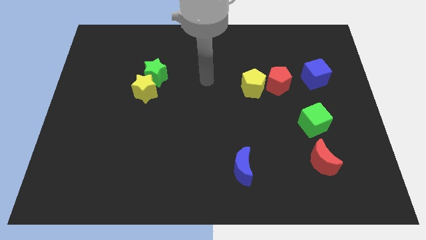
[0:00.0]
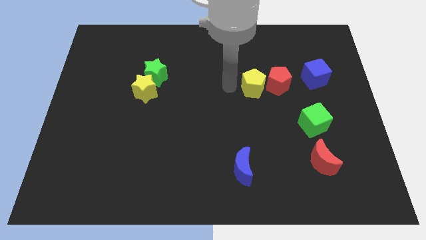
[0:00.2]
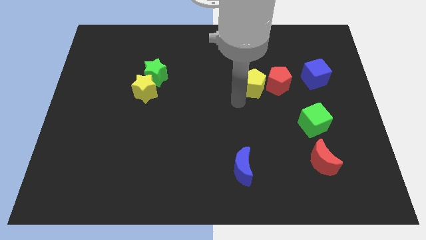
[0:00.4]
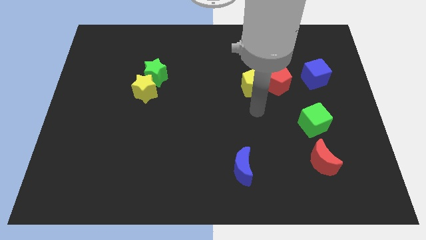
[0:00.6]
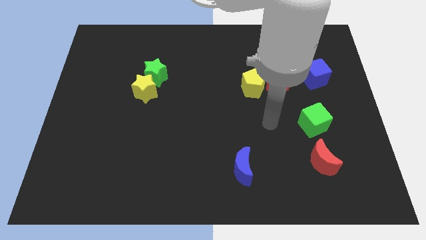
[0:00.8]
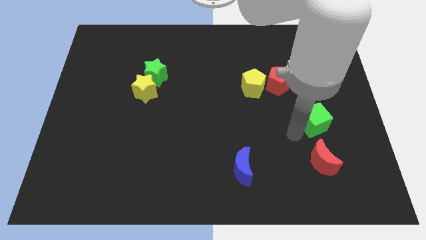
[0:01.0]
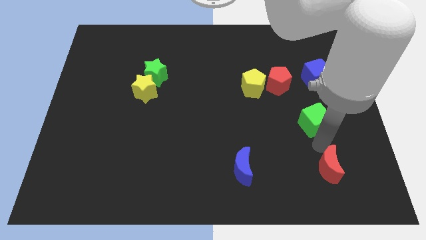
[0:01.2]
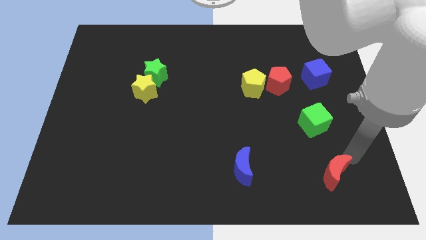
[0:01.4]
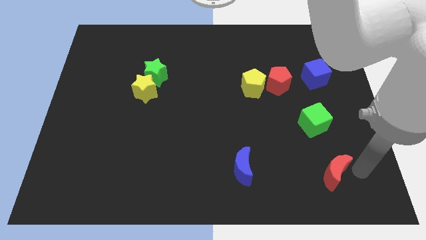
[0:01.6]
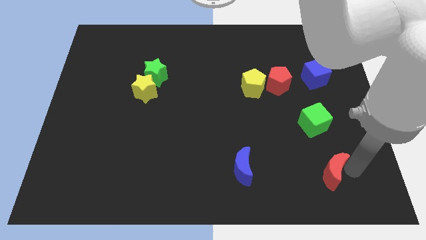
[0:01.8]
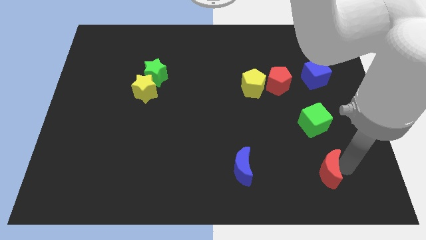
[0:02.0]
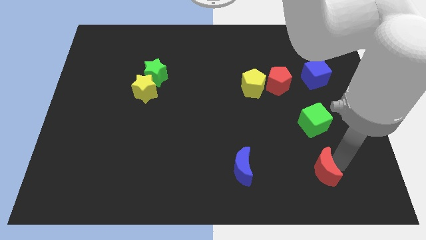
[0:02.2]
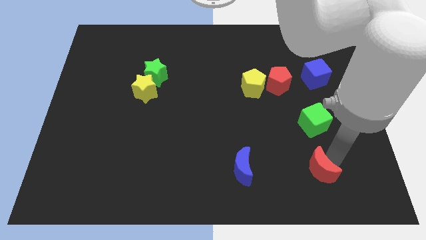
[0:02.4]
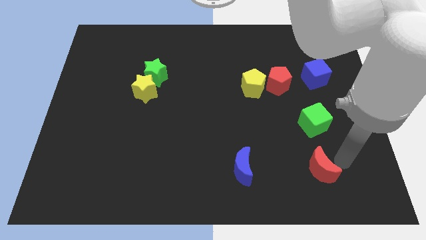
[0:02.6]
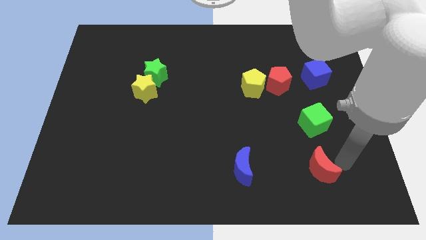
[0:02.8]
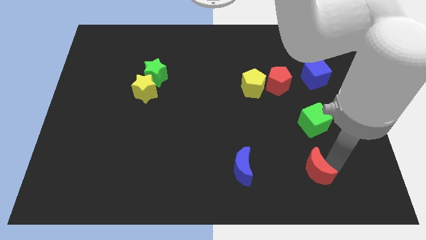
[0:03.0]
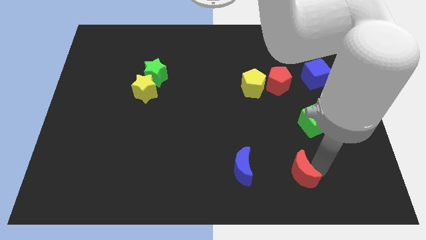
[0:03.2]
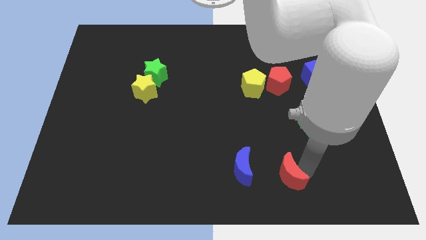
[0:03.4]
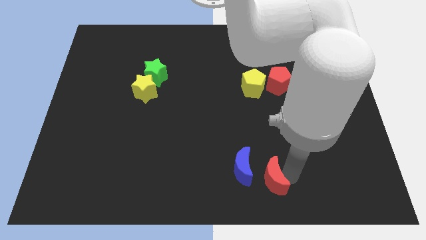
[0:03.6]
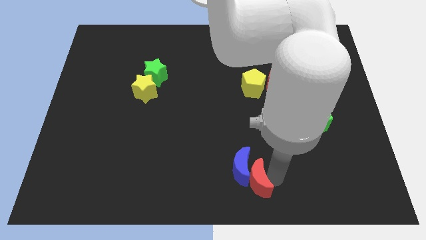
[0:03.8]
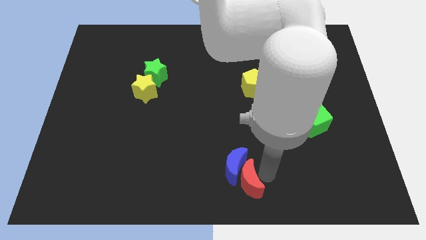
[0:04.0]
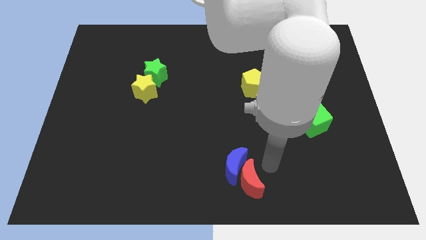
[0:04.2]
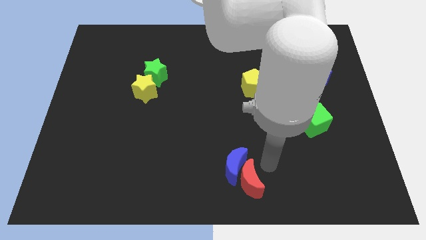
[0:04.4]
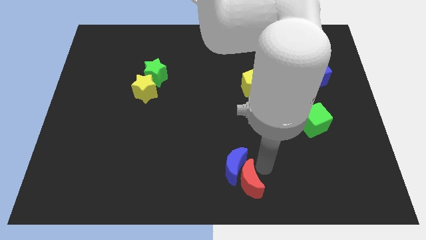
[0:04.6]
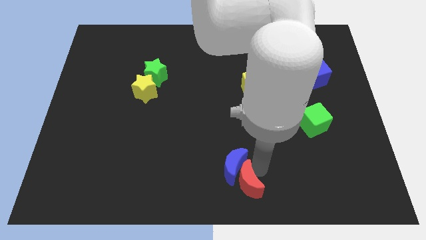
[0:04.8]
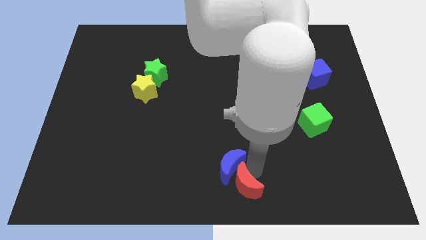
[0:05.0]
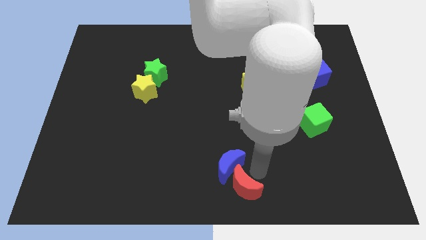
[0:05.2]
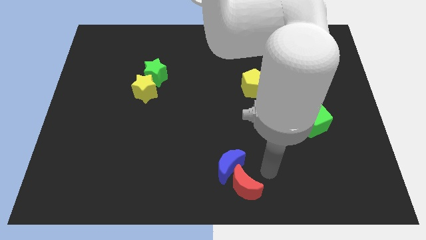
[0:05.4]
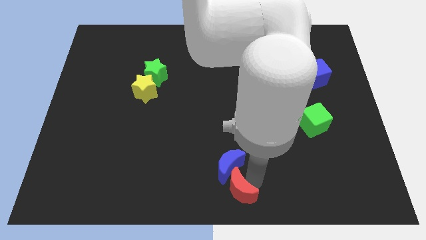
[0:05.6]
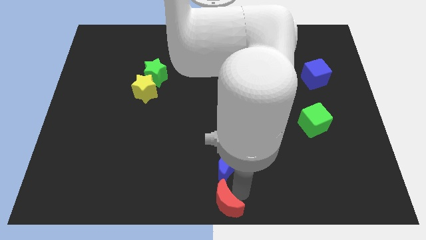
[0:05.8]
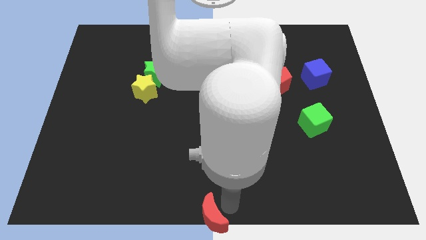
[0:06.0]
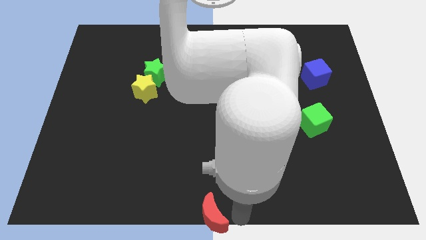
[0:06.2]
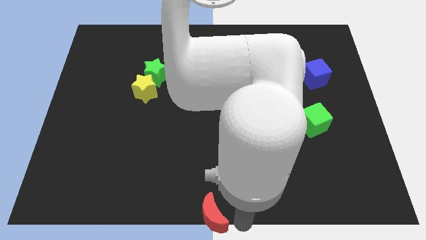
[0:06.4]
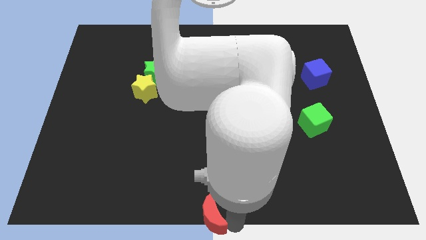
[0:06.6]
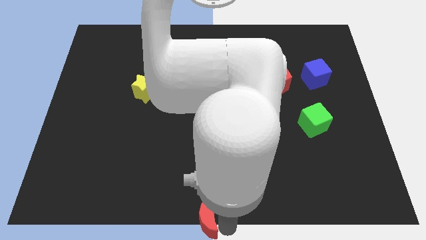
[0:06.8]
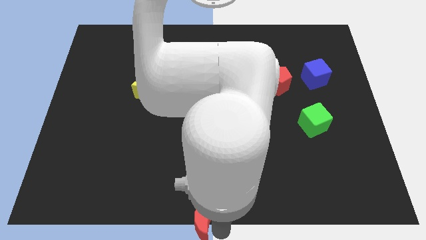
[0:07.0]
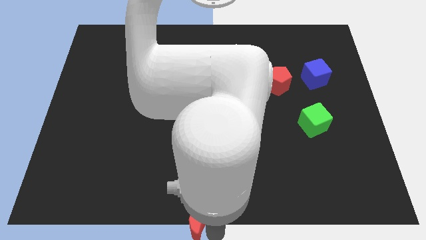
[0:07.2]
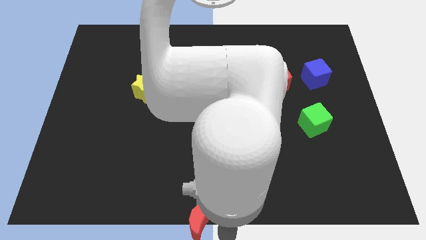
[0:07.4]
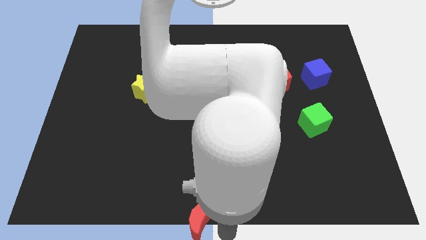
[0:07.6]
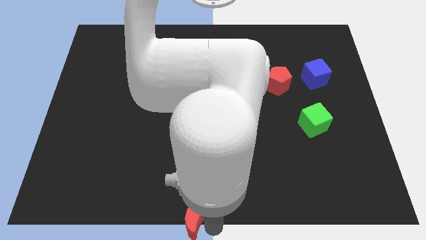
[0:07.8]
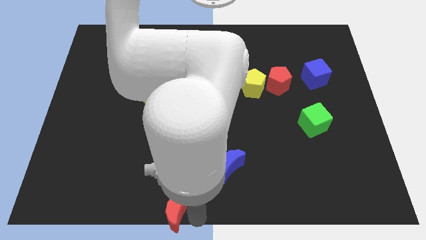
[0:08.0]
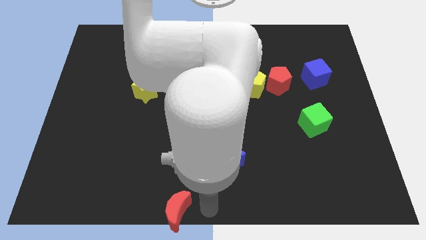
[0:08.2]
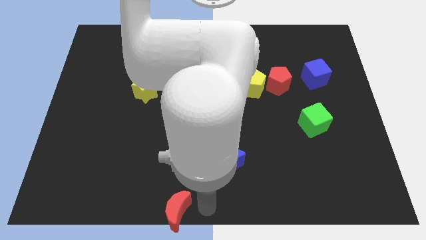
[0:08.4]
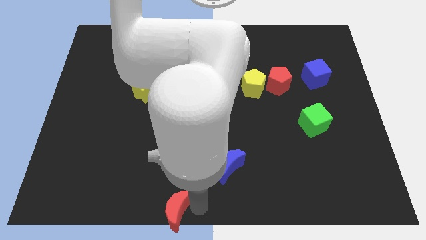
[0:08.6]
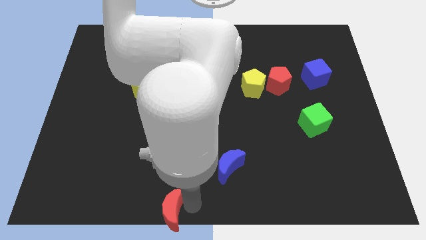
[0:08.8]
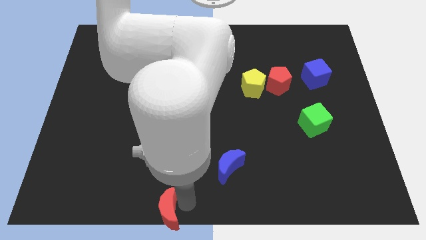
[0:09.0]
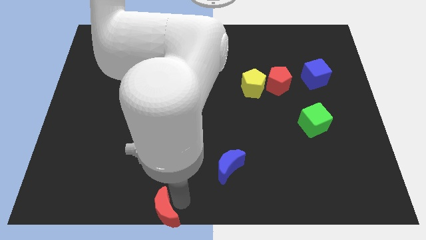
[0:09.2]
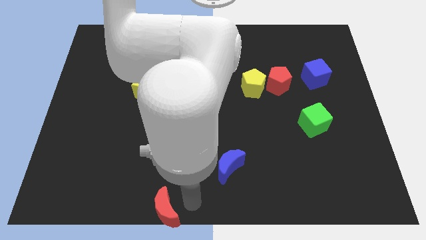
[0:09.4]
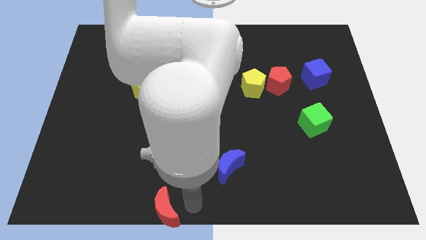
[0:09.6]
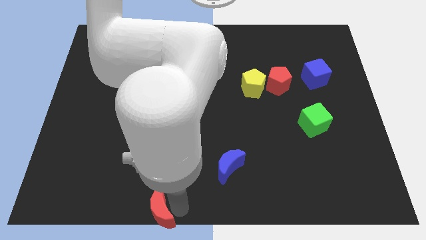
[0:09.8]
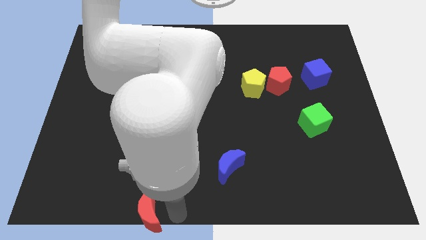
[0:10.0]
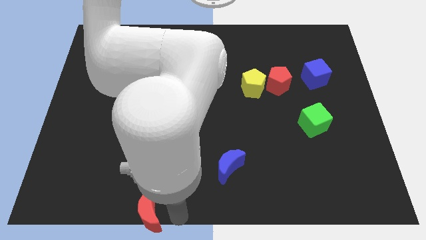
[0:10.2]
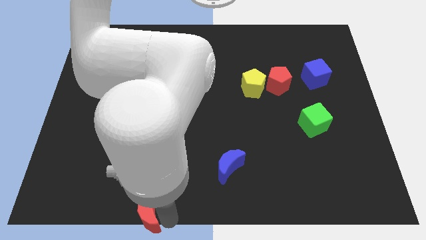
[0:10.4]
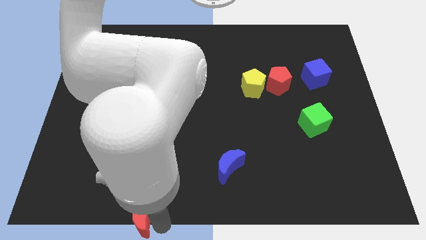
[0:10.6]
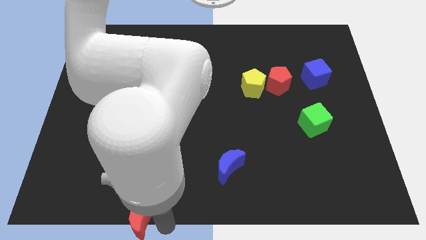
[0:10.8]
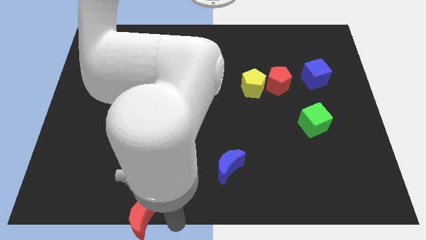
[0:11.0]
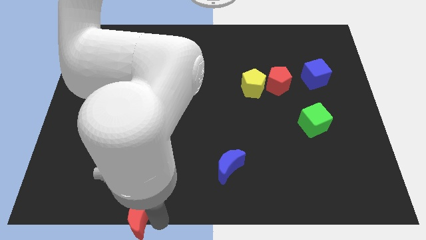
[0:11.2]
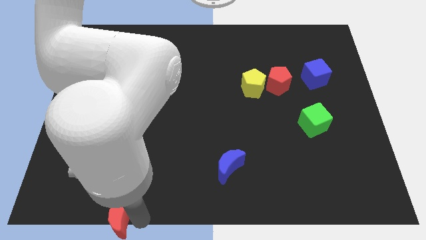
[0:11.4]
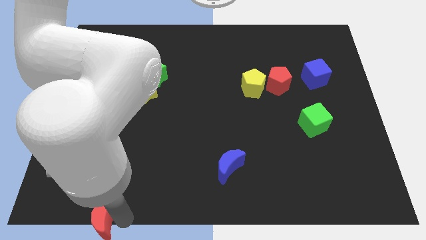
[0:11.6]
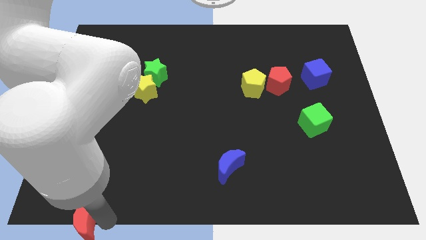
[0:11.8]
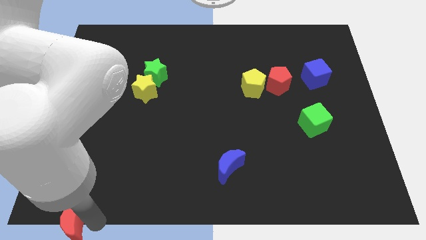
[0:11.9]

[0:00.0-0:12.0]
put the red moon to the bottom left corner
